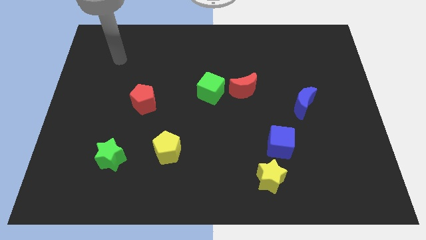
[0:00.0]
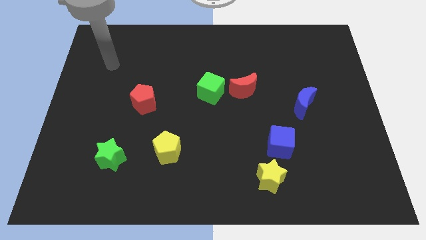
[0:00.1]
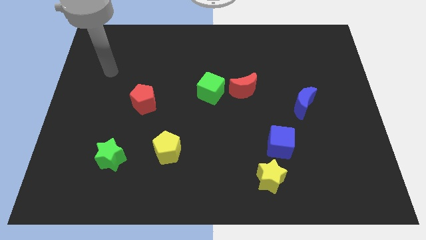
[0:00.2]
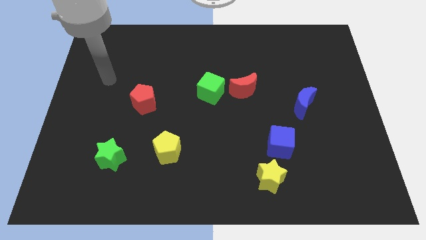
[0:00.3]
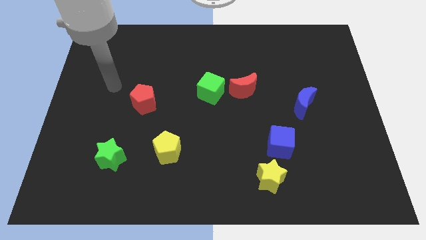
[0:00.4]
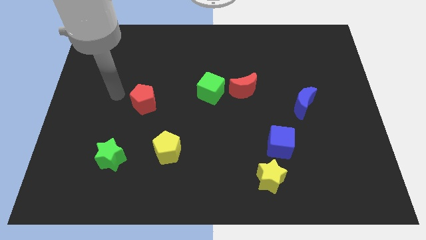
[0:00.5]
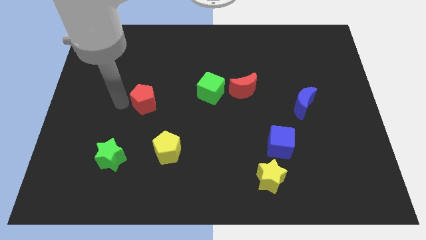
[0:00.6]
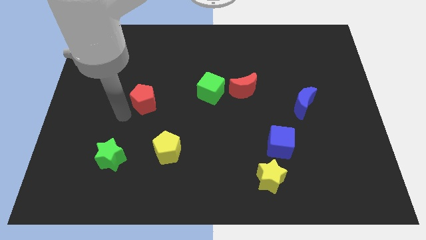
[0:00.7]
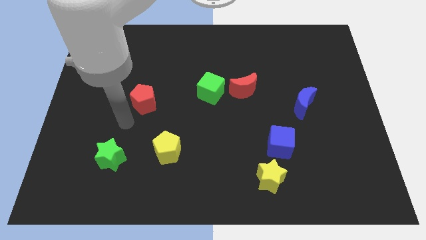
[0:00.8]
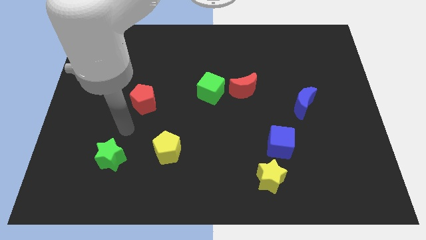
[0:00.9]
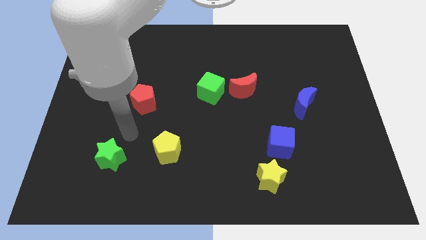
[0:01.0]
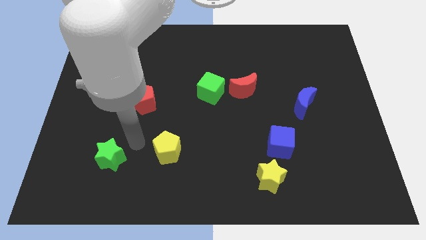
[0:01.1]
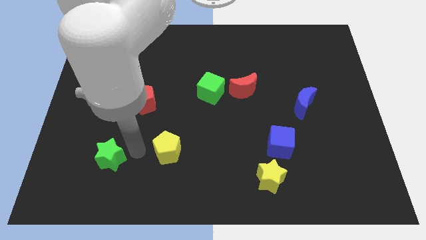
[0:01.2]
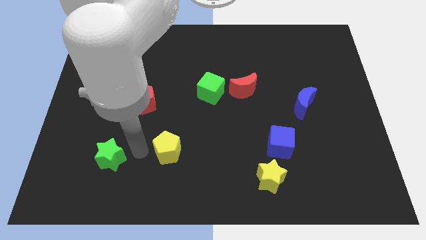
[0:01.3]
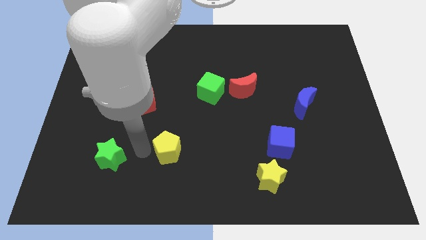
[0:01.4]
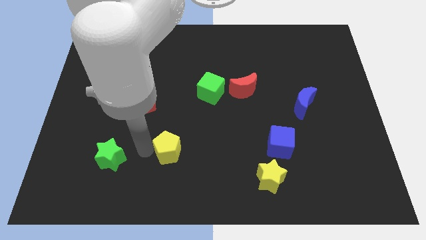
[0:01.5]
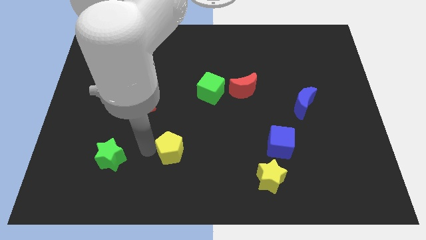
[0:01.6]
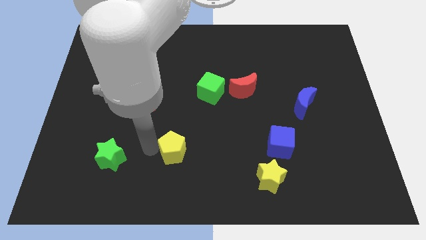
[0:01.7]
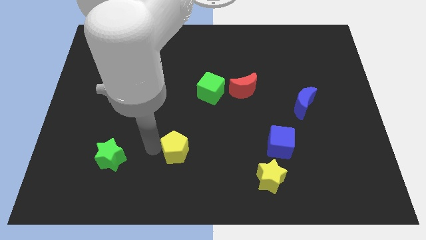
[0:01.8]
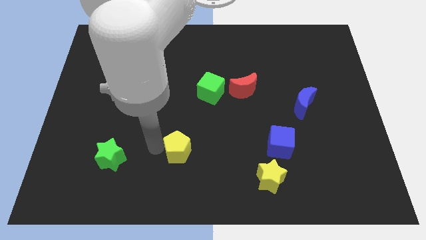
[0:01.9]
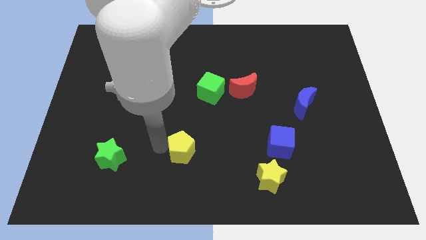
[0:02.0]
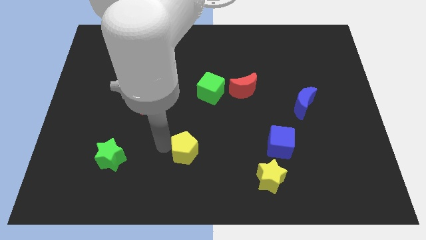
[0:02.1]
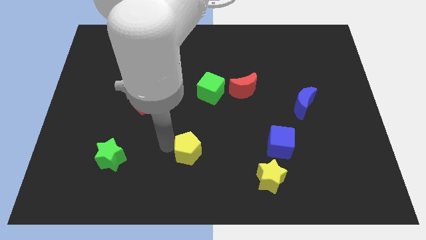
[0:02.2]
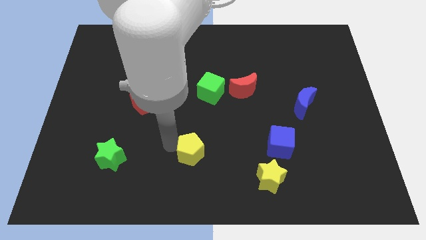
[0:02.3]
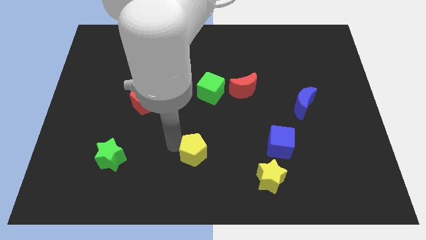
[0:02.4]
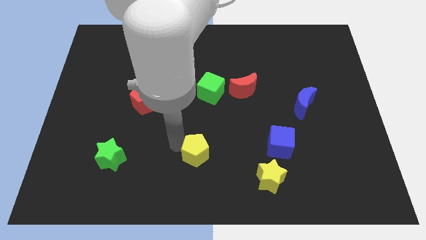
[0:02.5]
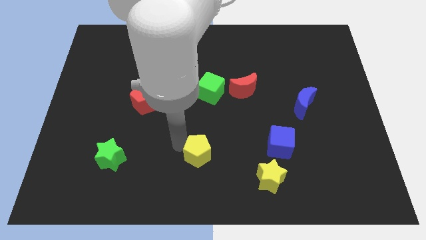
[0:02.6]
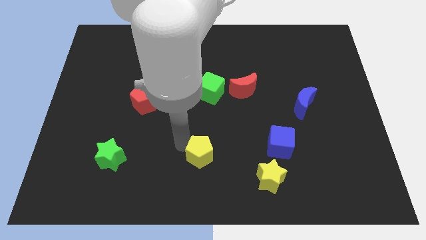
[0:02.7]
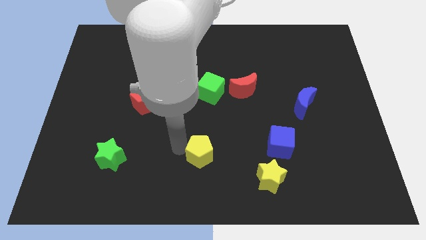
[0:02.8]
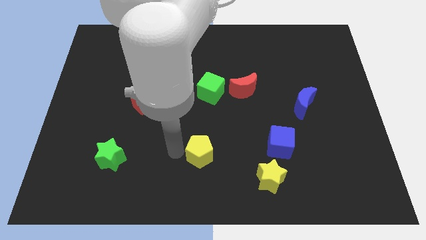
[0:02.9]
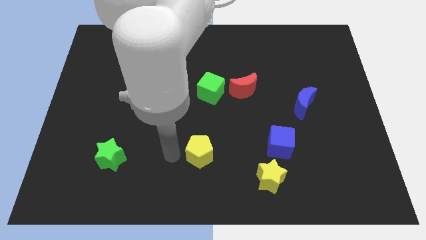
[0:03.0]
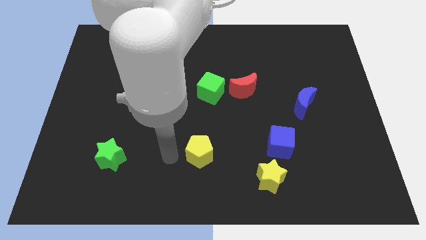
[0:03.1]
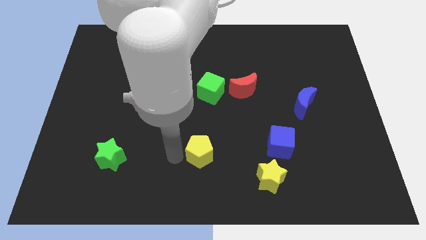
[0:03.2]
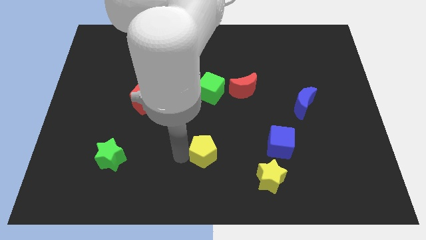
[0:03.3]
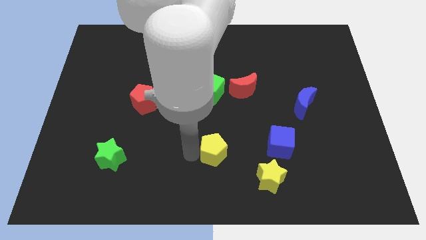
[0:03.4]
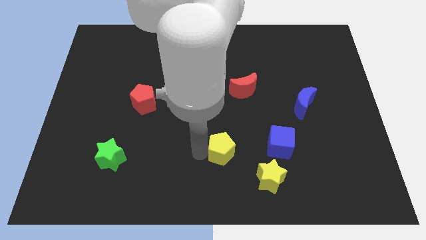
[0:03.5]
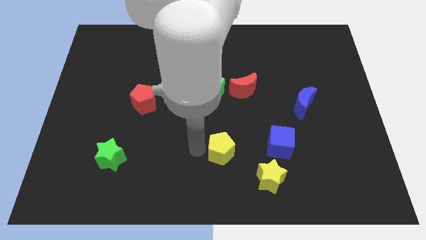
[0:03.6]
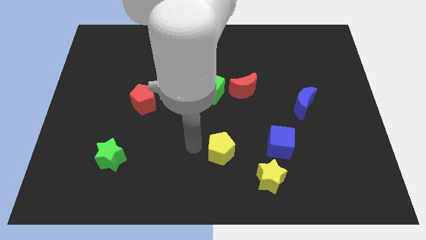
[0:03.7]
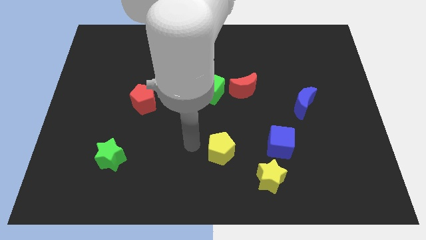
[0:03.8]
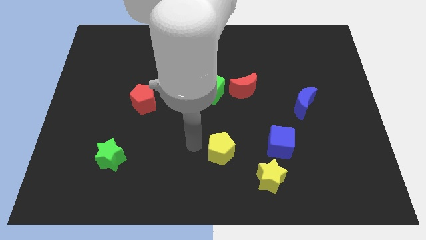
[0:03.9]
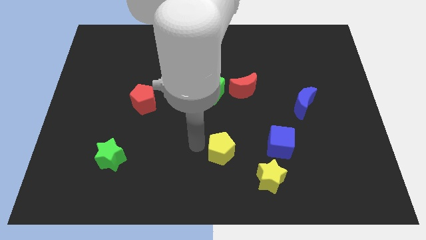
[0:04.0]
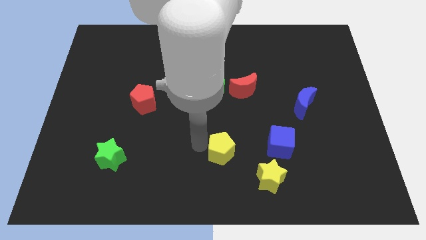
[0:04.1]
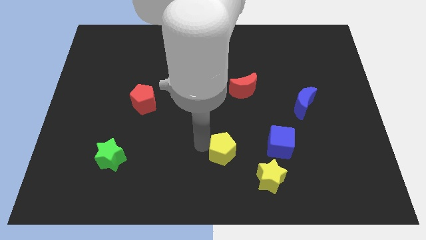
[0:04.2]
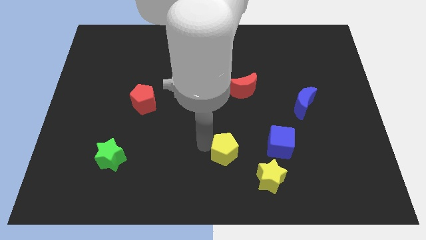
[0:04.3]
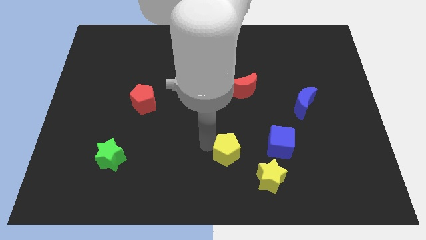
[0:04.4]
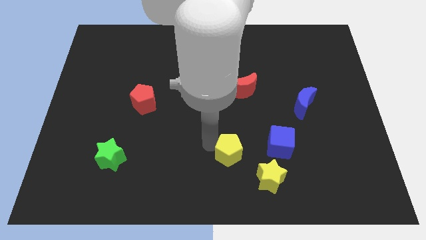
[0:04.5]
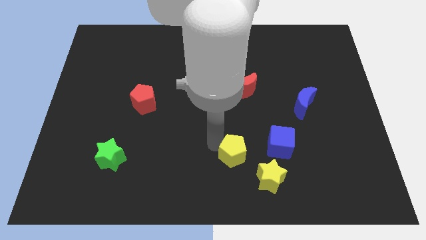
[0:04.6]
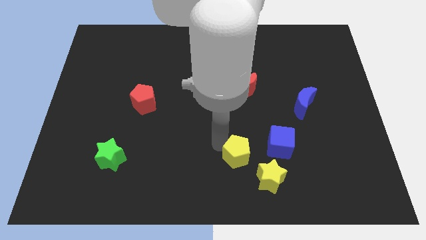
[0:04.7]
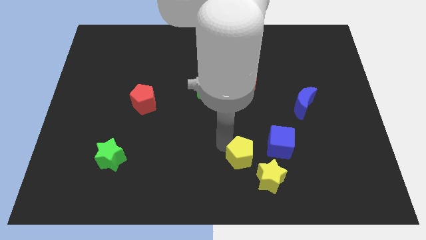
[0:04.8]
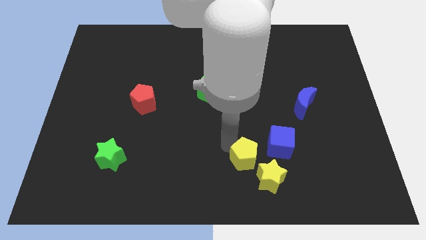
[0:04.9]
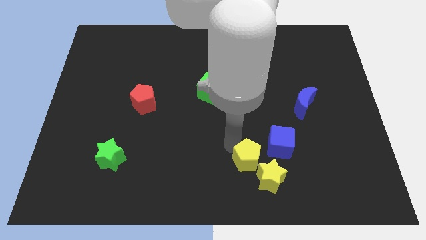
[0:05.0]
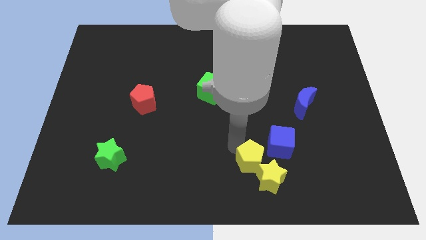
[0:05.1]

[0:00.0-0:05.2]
put the yellow pentagon next to the yellow star

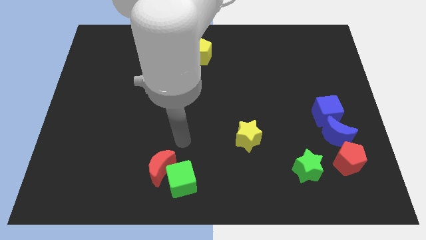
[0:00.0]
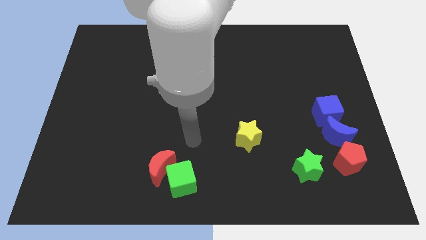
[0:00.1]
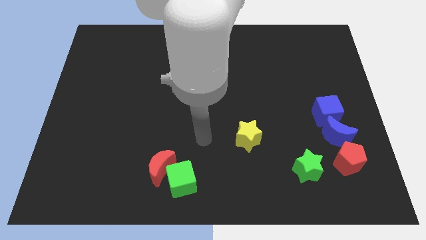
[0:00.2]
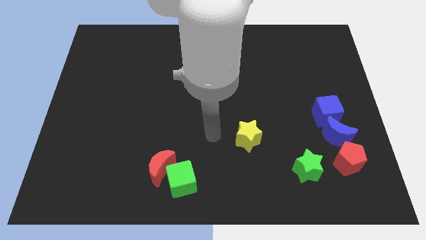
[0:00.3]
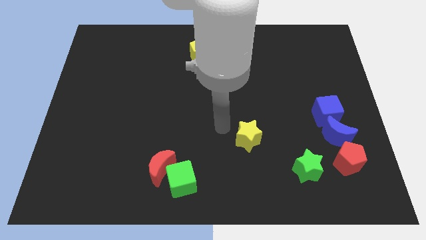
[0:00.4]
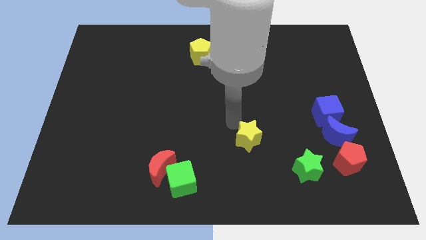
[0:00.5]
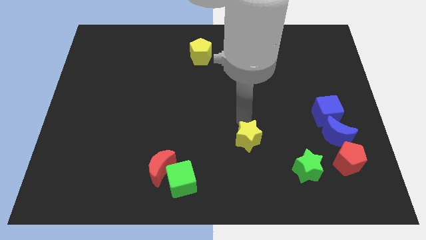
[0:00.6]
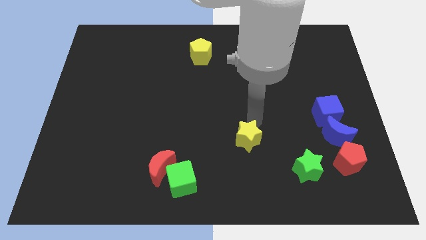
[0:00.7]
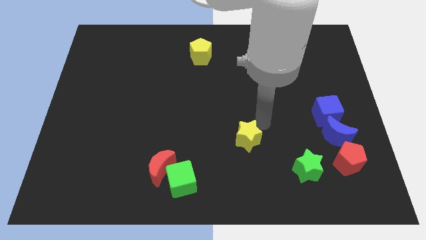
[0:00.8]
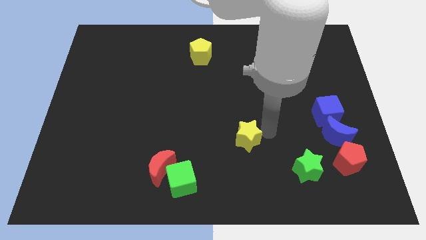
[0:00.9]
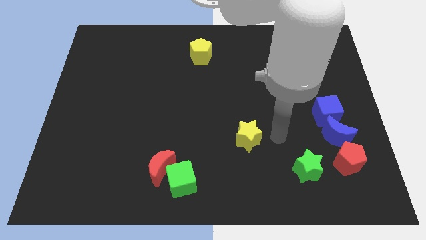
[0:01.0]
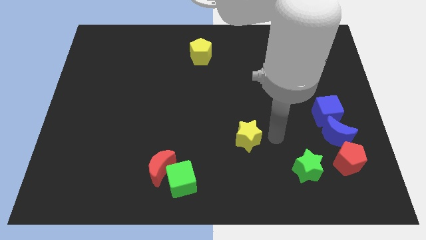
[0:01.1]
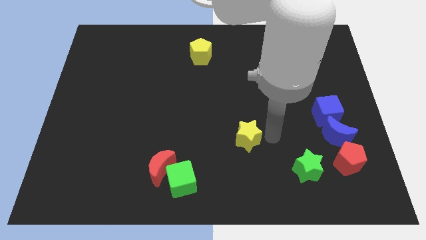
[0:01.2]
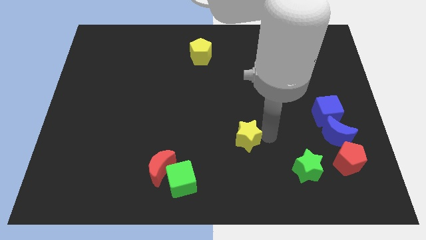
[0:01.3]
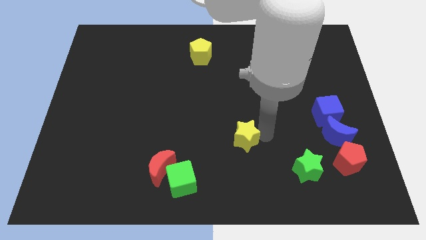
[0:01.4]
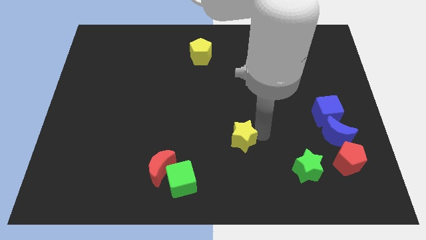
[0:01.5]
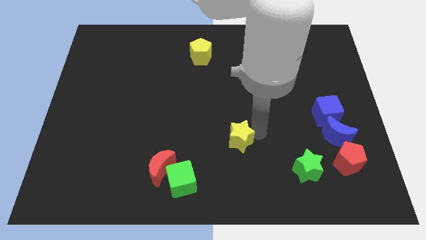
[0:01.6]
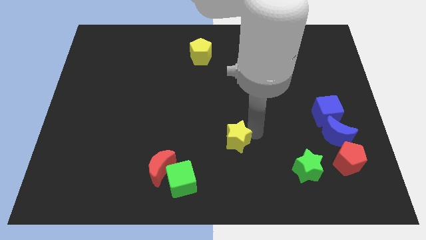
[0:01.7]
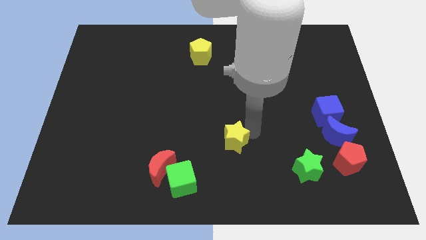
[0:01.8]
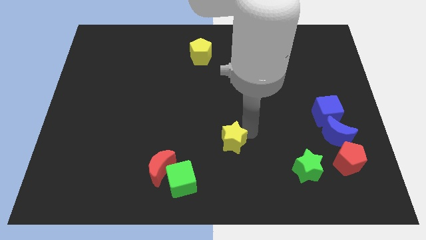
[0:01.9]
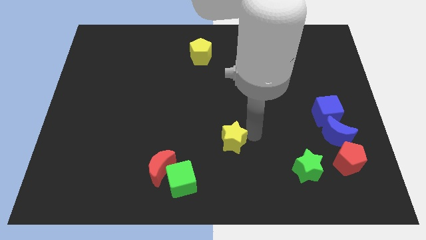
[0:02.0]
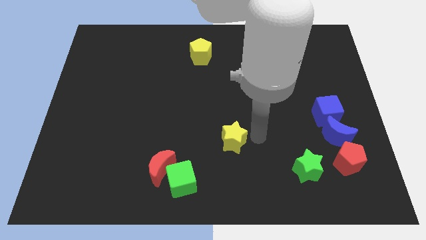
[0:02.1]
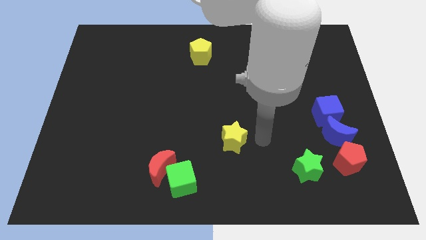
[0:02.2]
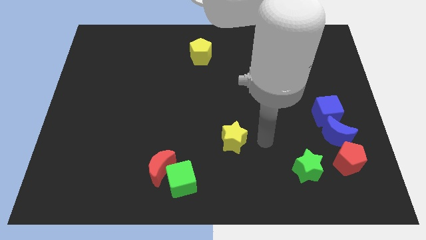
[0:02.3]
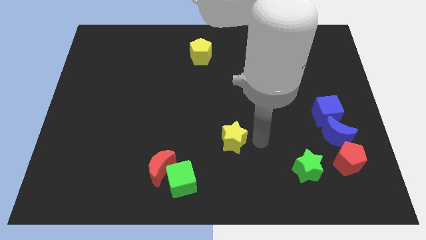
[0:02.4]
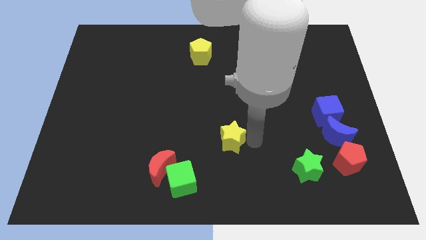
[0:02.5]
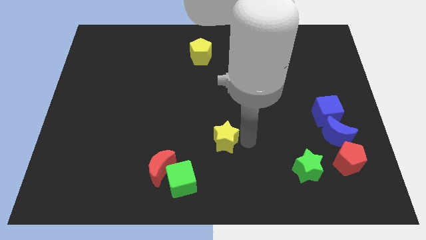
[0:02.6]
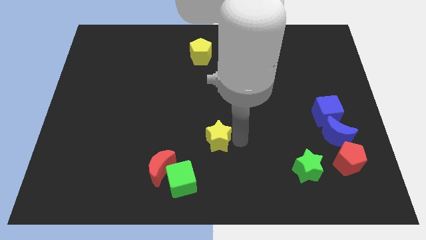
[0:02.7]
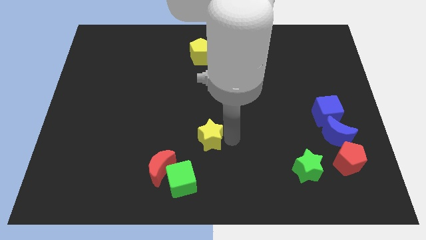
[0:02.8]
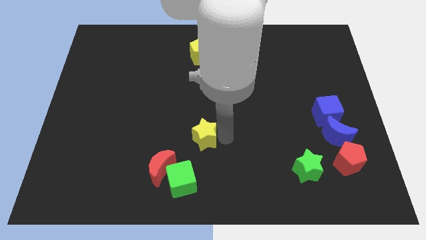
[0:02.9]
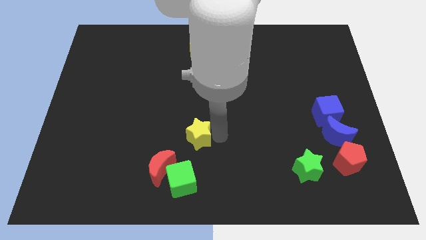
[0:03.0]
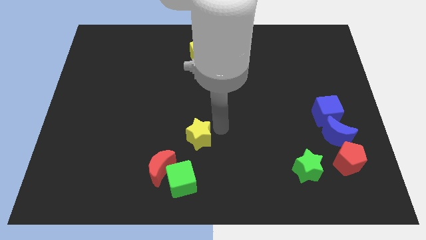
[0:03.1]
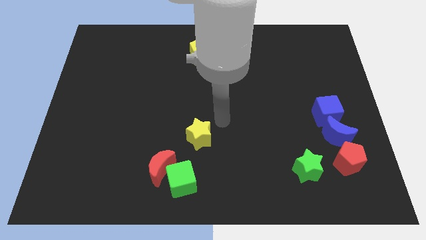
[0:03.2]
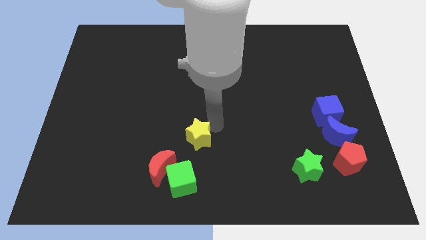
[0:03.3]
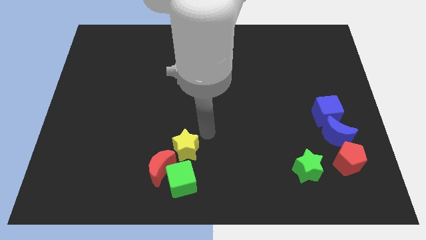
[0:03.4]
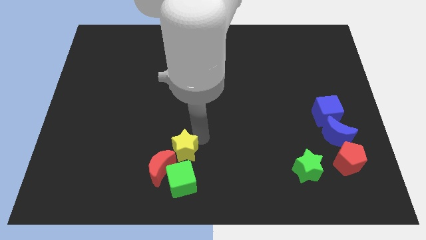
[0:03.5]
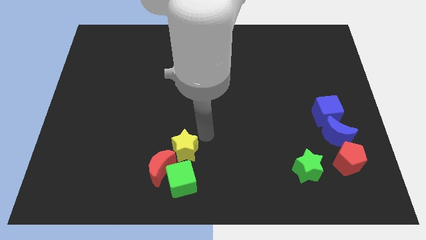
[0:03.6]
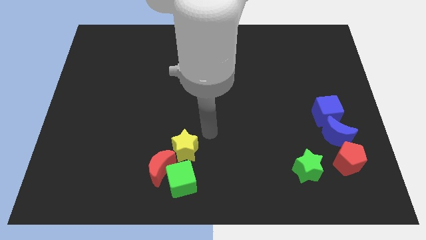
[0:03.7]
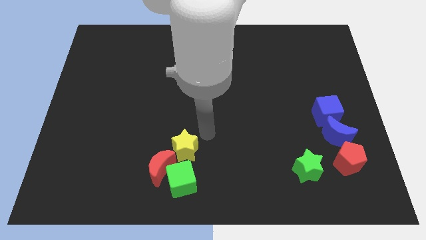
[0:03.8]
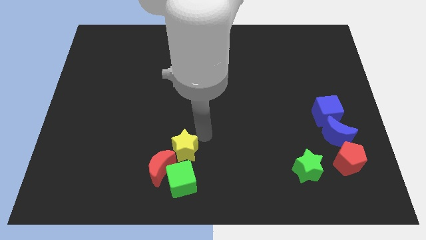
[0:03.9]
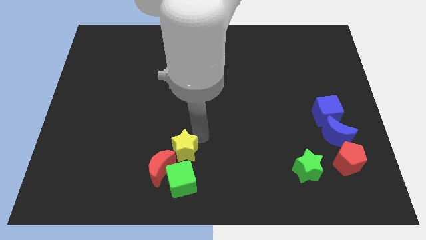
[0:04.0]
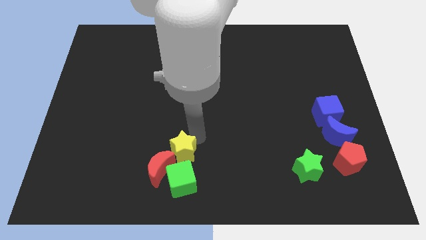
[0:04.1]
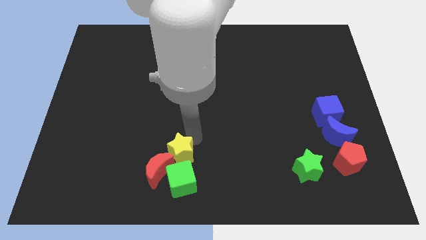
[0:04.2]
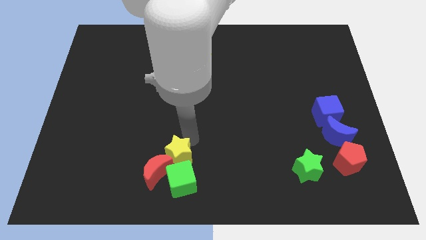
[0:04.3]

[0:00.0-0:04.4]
slide the yellow star to the red moon
